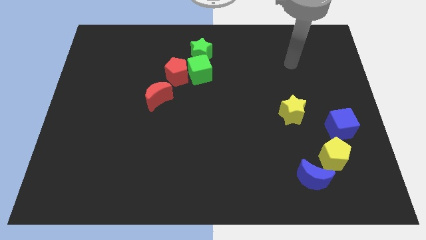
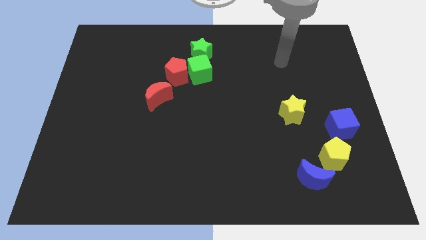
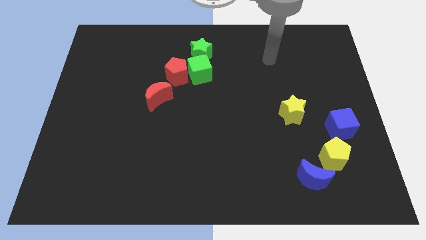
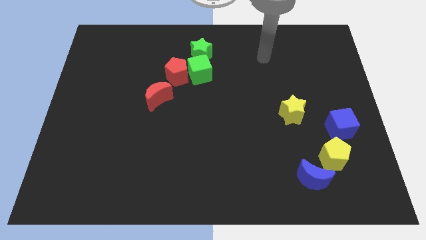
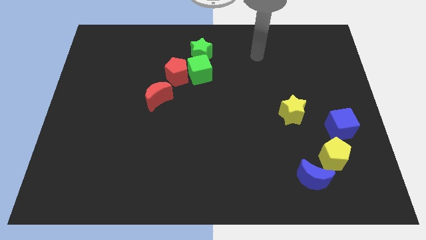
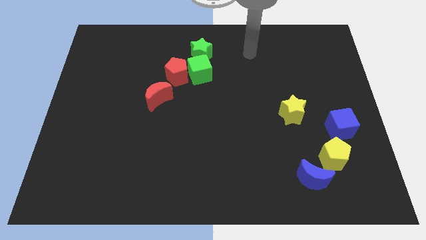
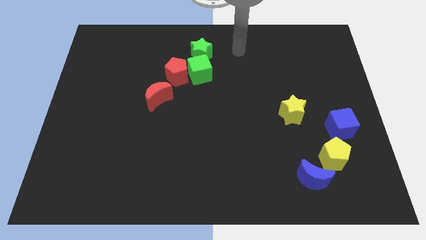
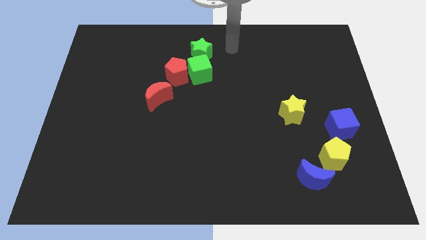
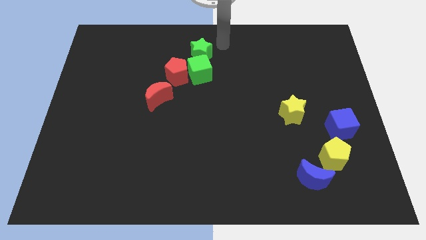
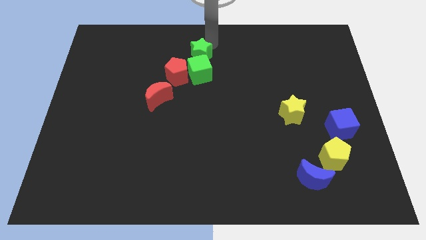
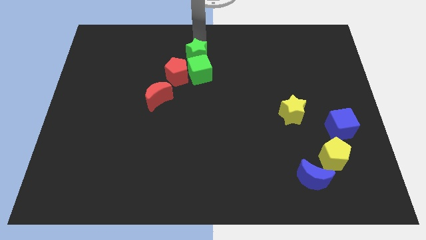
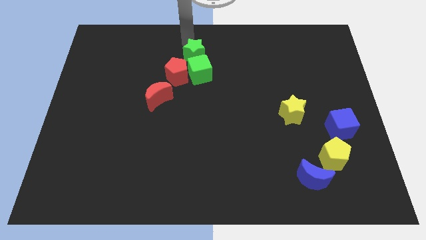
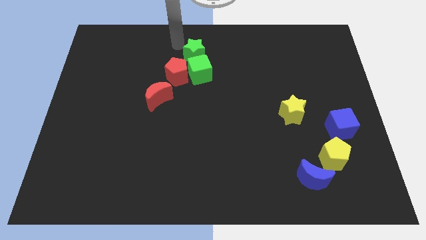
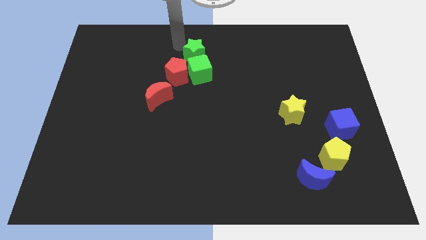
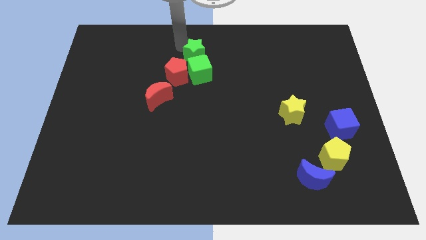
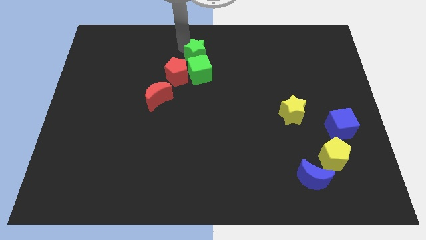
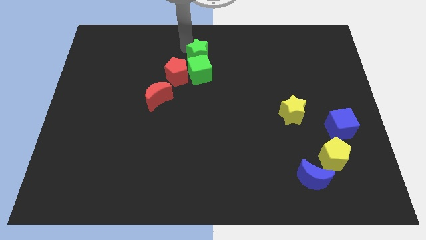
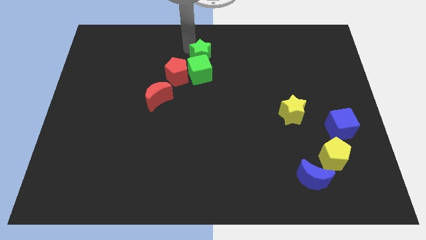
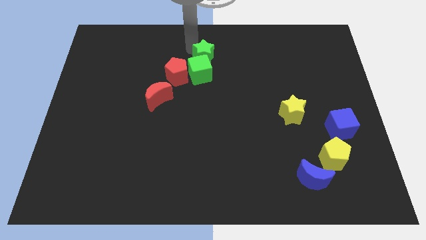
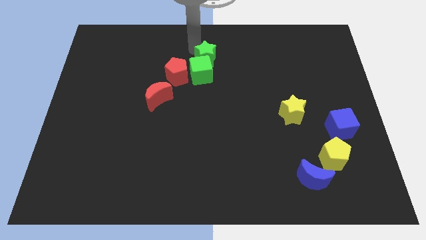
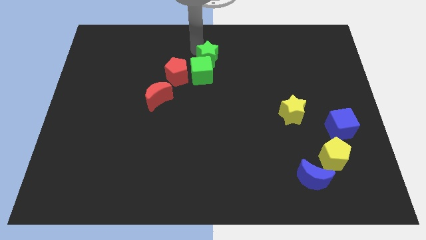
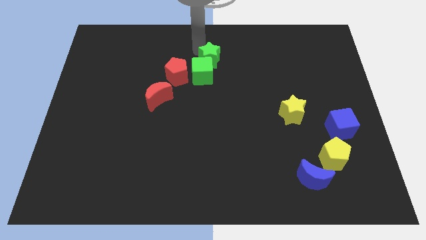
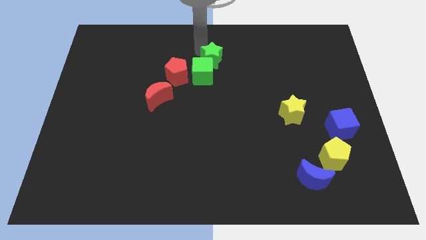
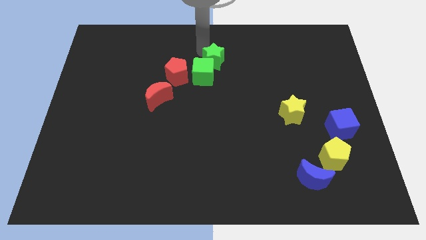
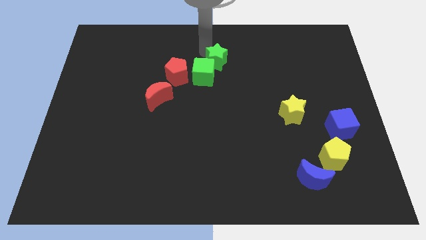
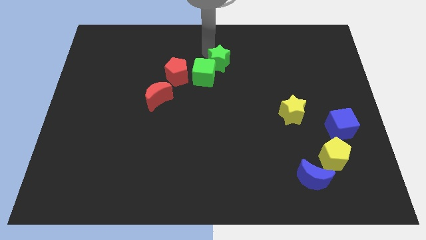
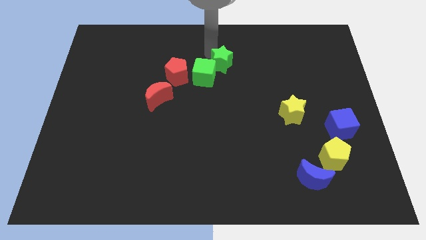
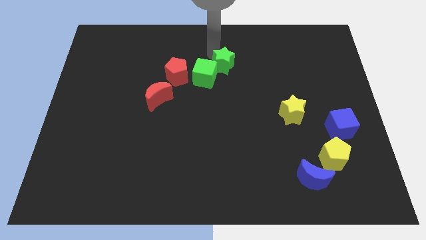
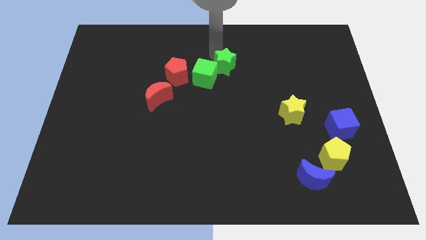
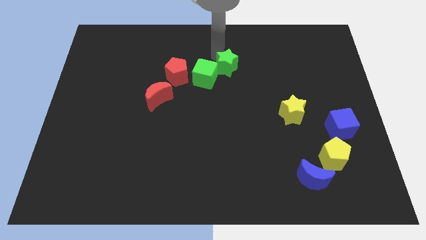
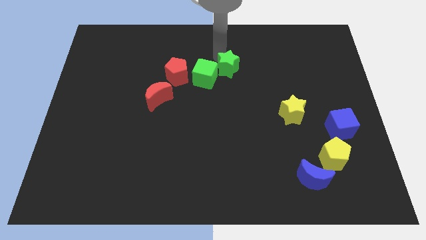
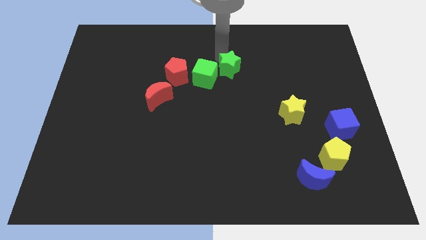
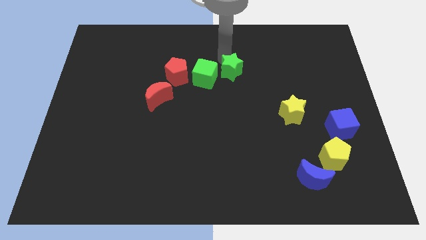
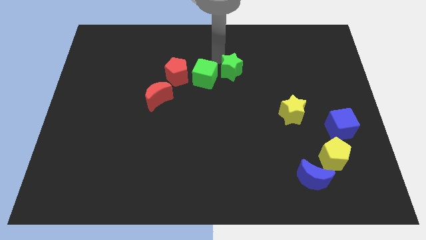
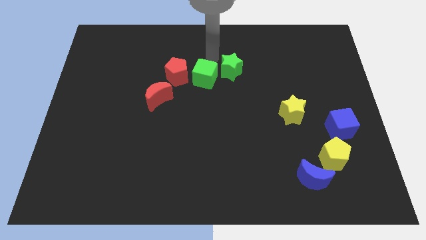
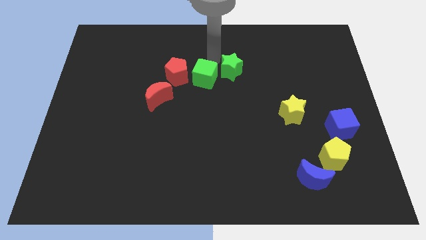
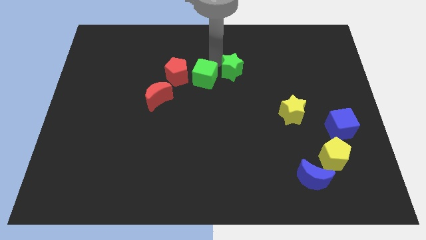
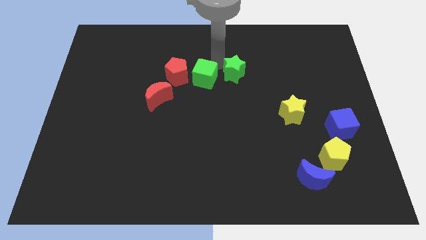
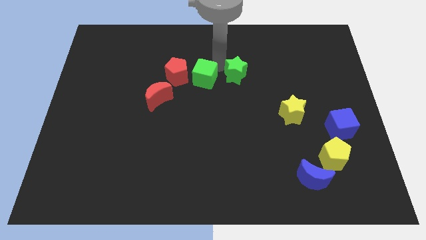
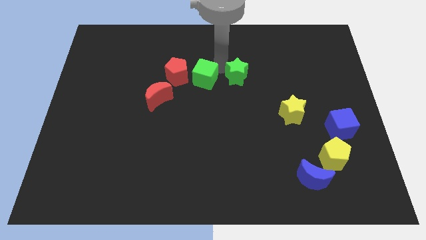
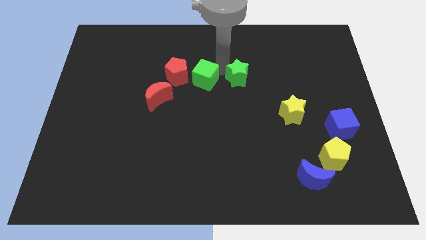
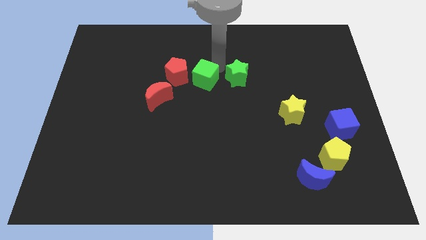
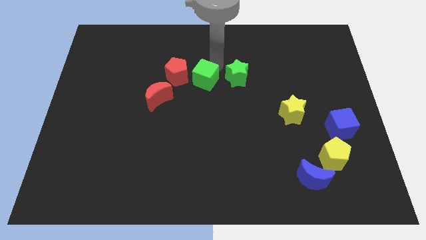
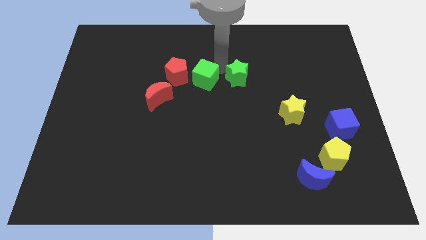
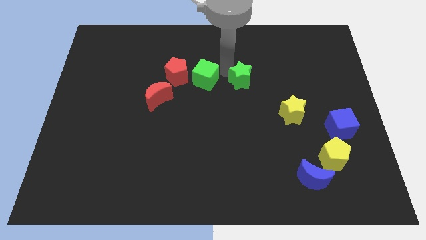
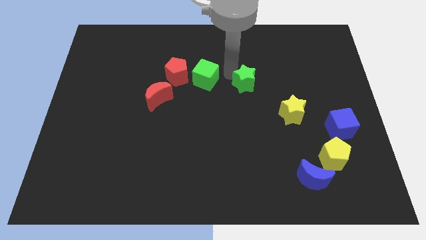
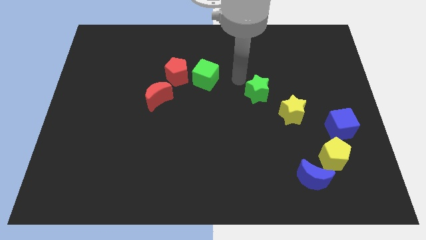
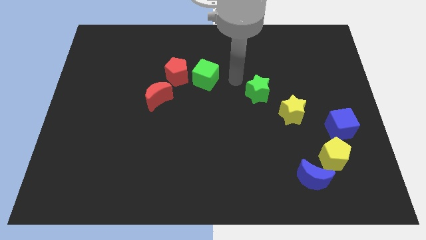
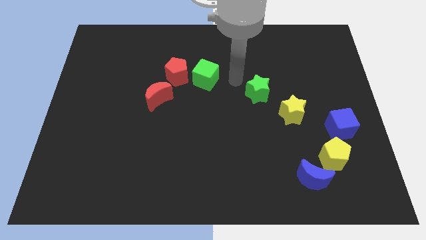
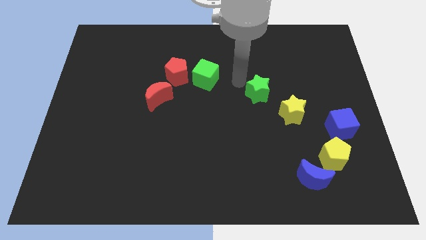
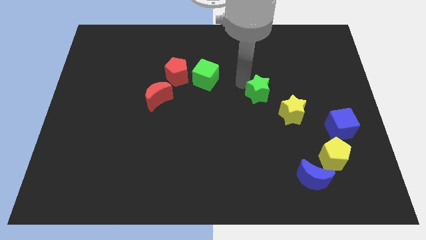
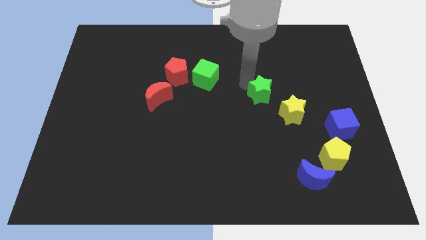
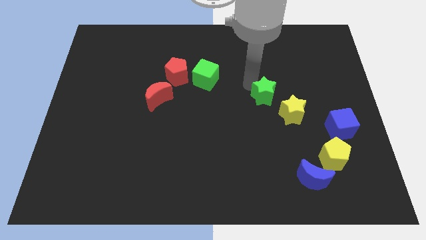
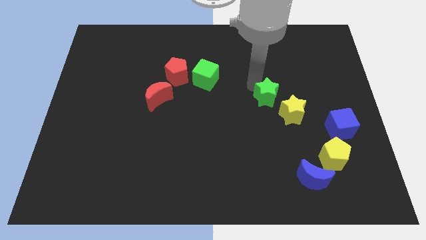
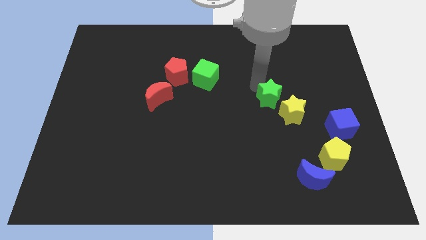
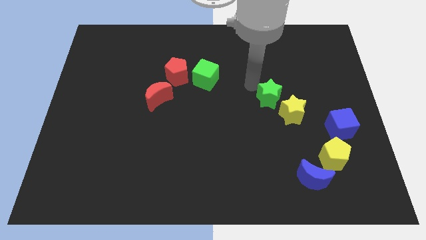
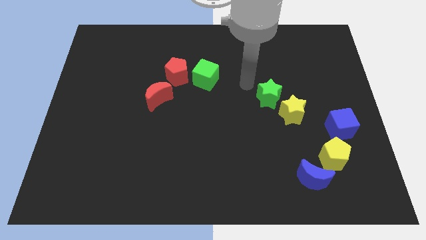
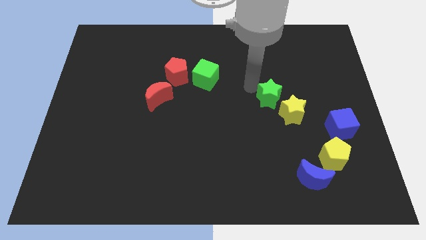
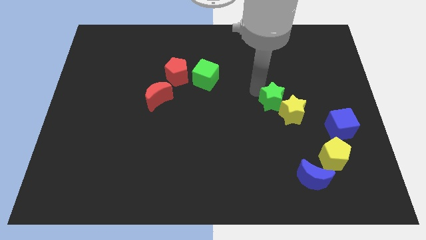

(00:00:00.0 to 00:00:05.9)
move the green star next to the yellow star

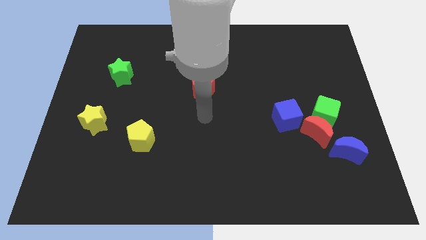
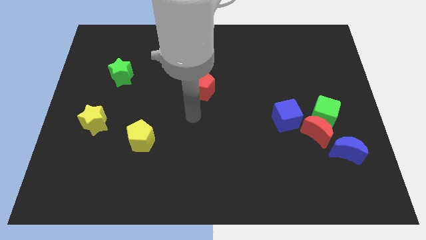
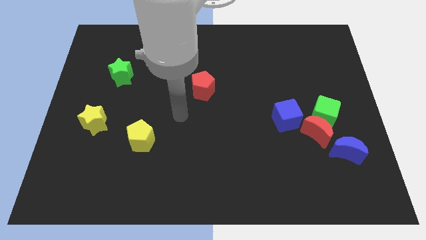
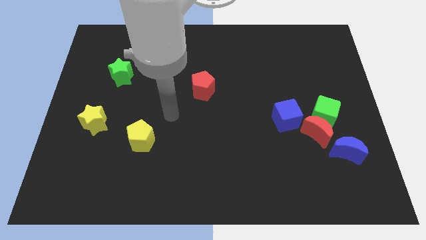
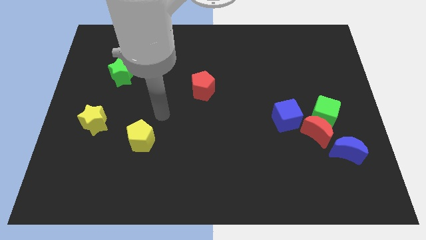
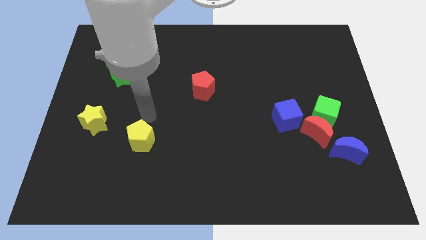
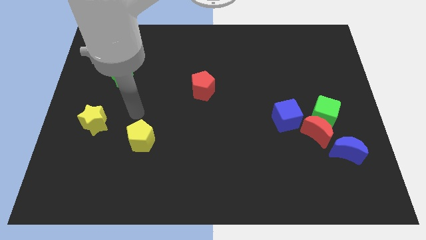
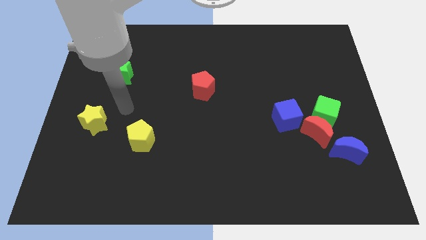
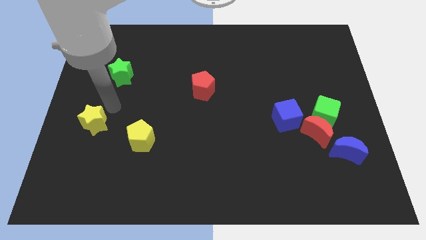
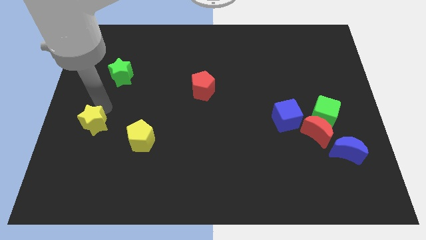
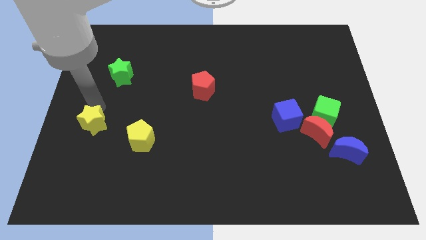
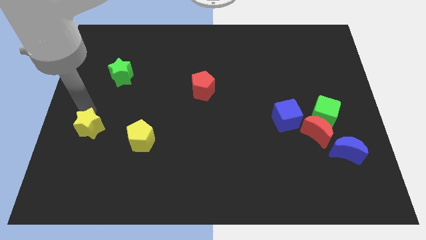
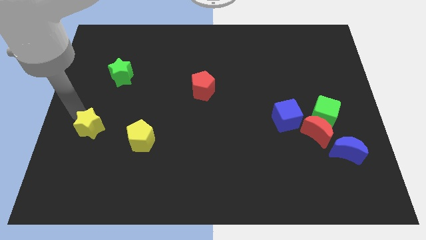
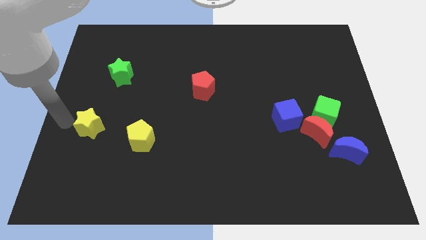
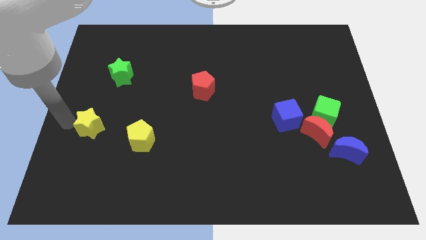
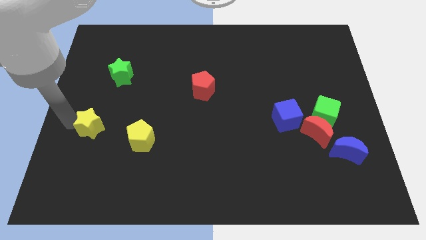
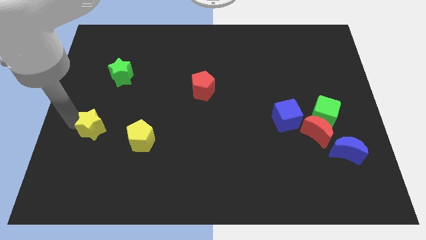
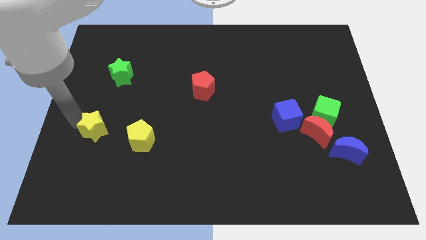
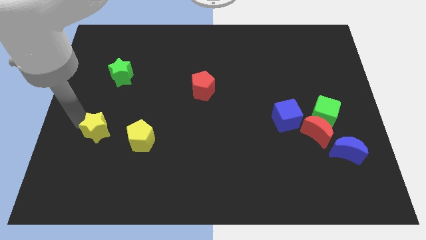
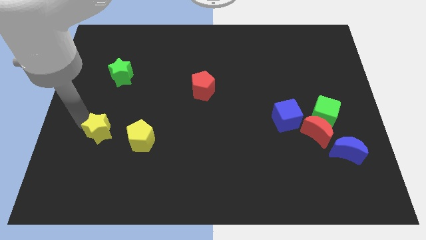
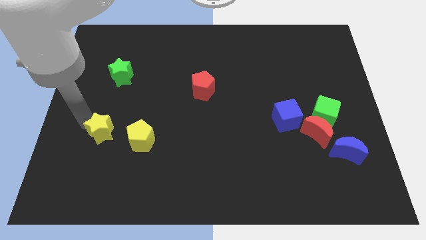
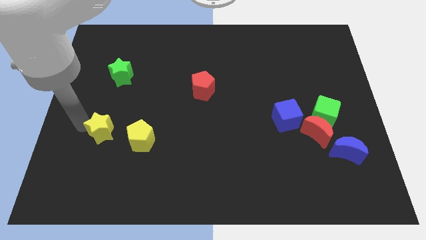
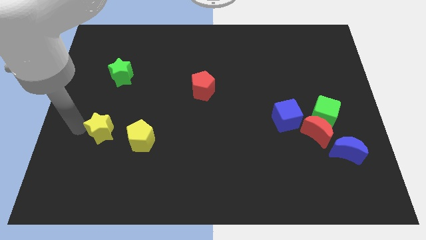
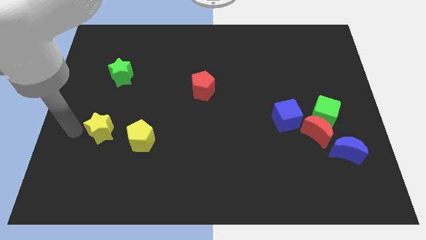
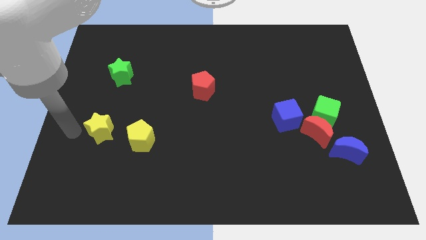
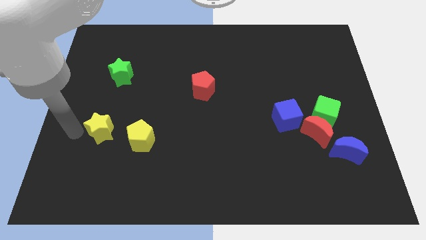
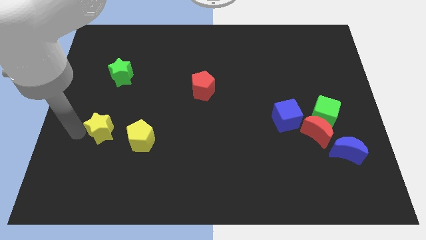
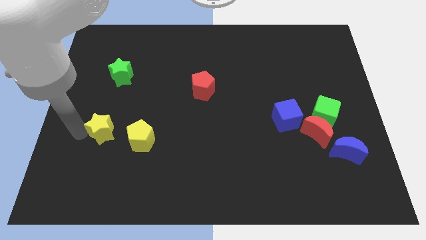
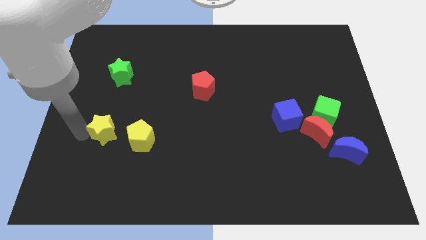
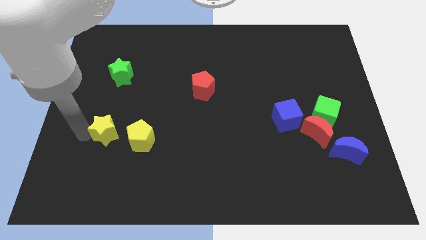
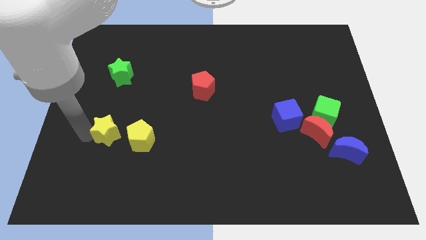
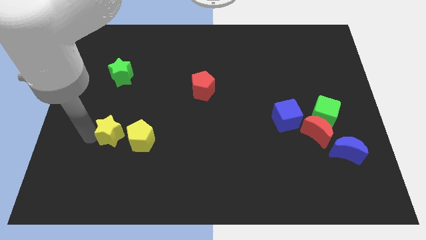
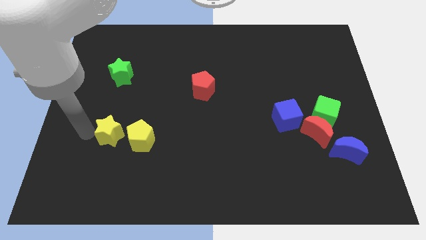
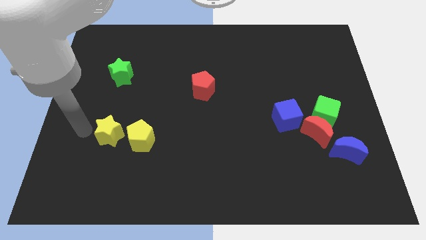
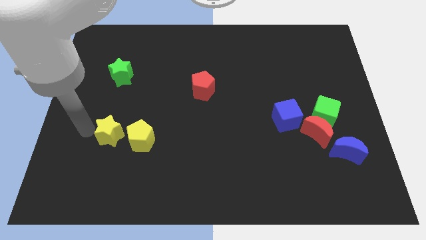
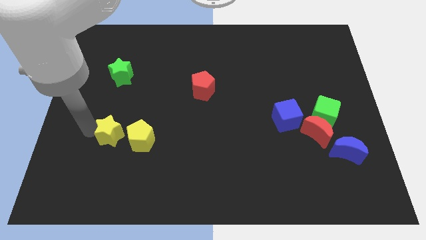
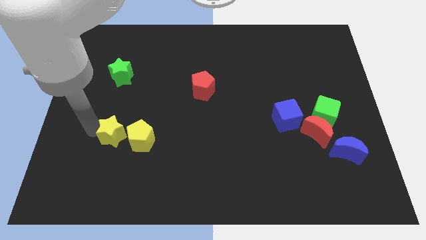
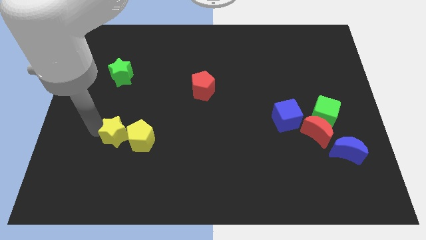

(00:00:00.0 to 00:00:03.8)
slide the yellow star close to the yellow pentagon
